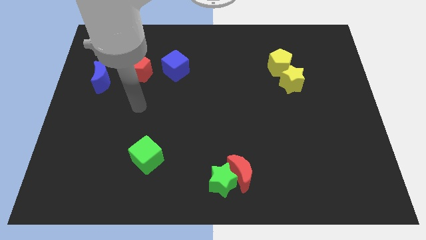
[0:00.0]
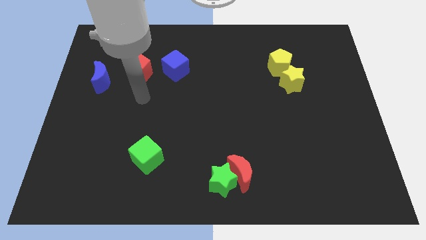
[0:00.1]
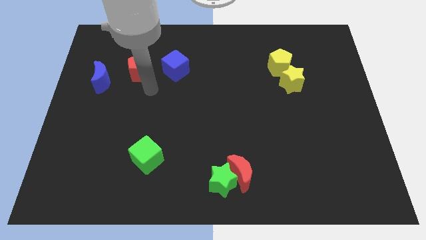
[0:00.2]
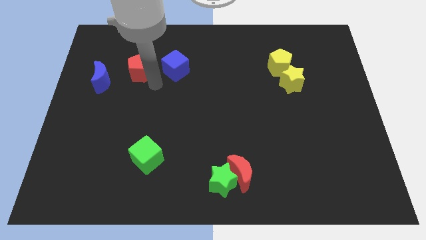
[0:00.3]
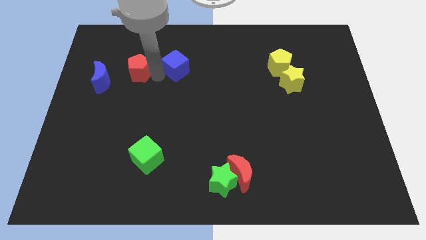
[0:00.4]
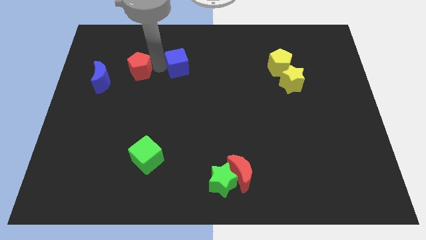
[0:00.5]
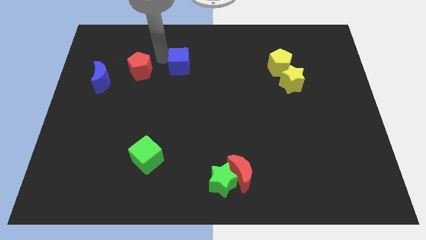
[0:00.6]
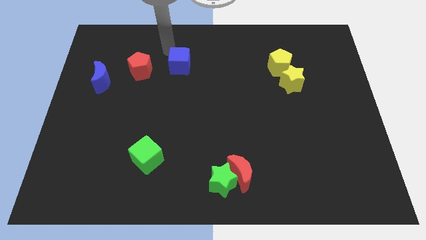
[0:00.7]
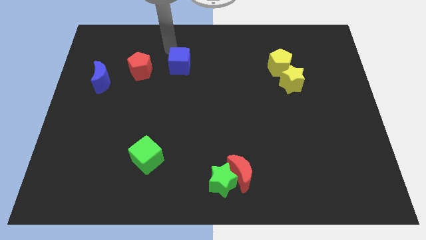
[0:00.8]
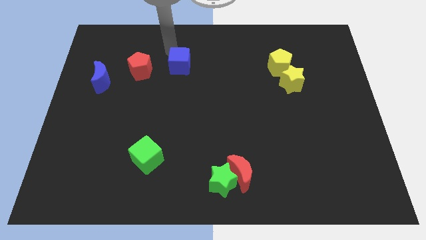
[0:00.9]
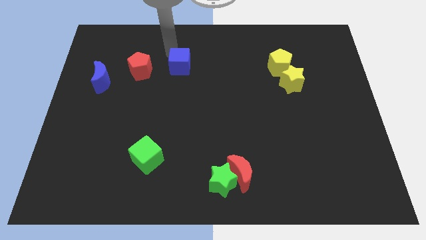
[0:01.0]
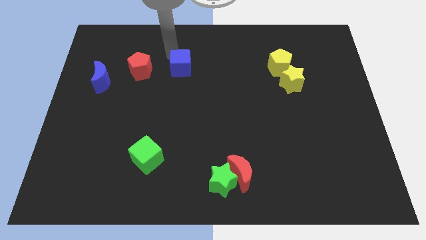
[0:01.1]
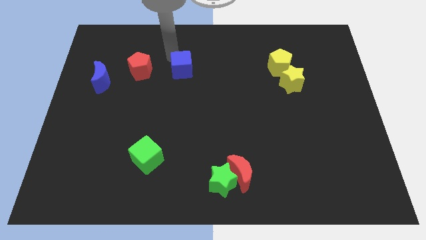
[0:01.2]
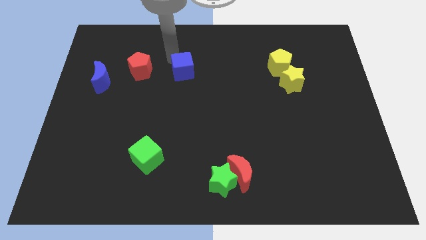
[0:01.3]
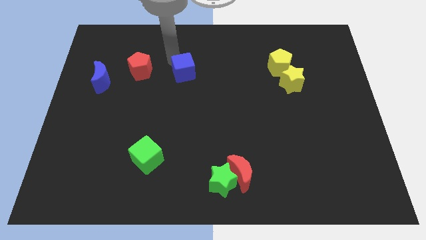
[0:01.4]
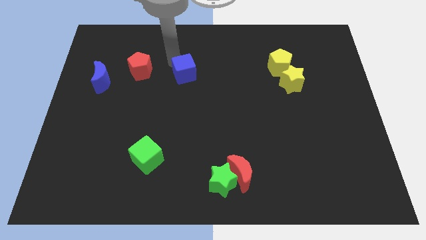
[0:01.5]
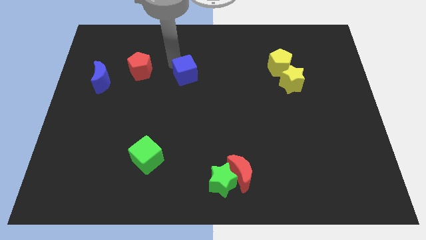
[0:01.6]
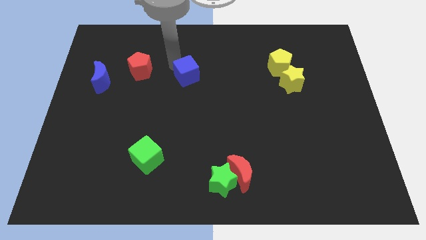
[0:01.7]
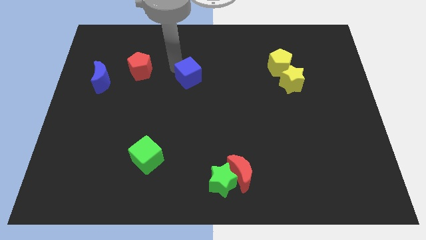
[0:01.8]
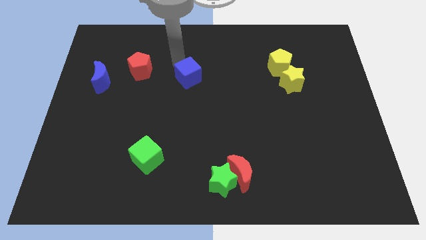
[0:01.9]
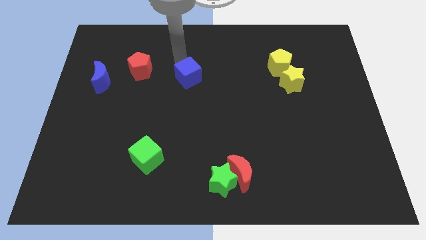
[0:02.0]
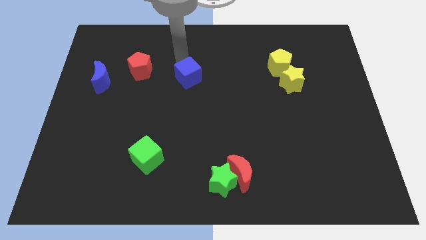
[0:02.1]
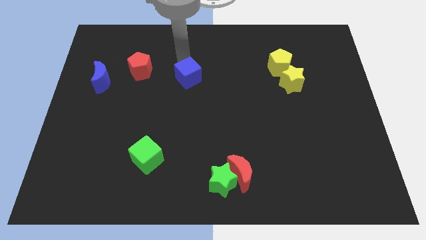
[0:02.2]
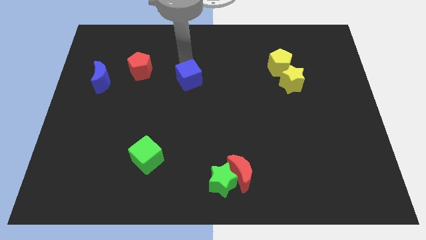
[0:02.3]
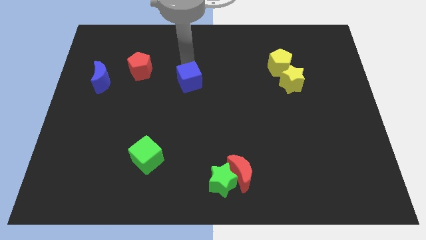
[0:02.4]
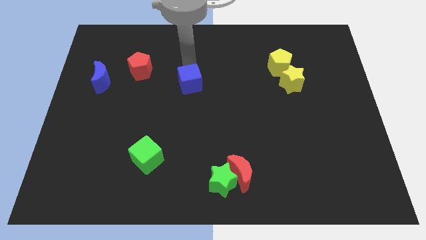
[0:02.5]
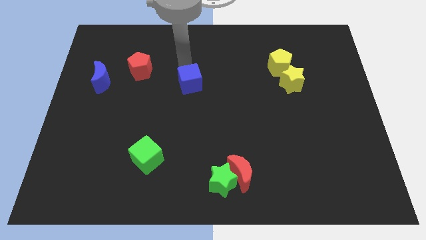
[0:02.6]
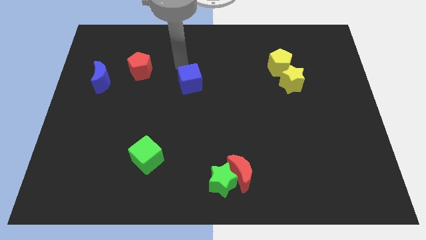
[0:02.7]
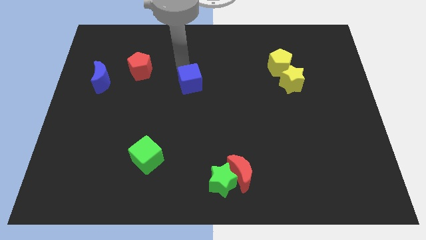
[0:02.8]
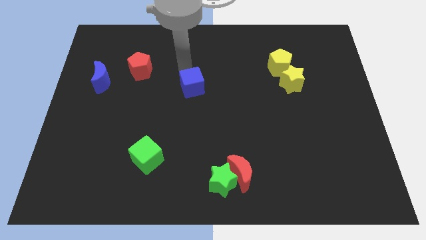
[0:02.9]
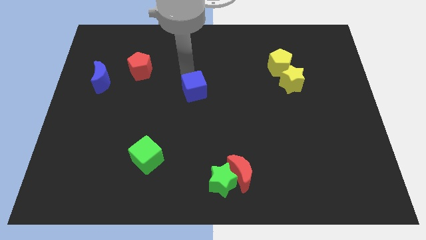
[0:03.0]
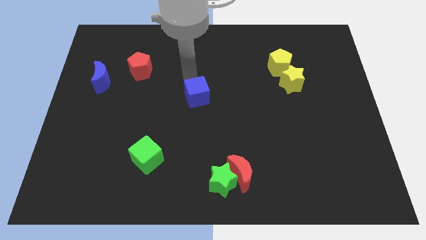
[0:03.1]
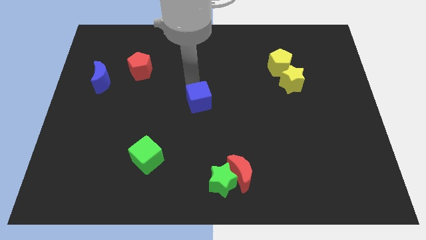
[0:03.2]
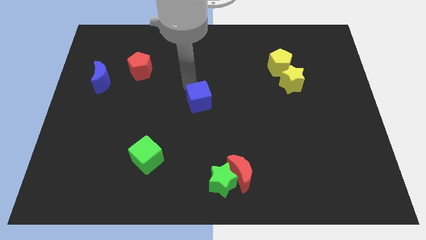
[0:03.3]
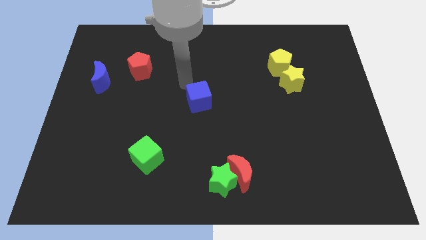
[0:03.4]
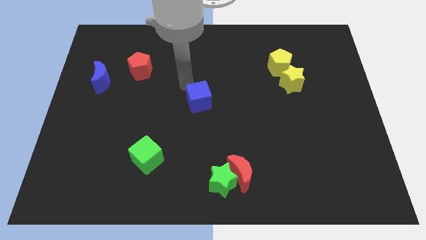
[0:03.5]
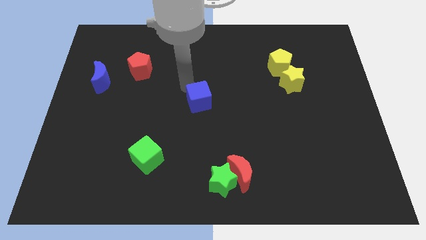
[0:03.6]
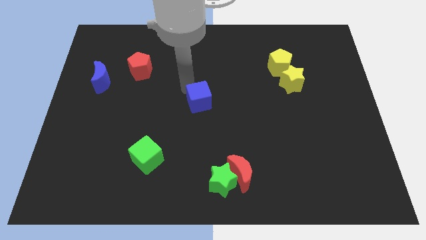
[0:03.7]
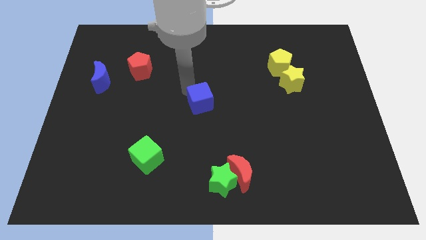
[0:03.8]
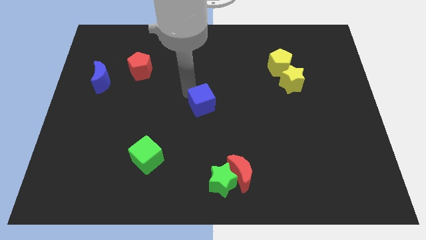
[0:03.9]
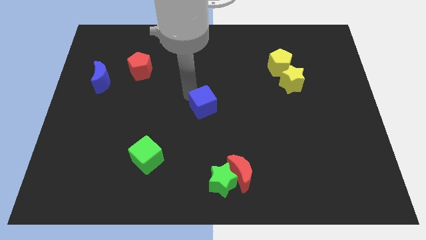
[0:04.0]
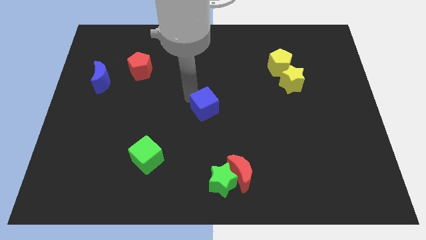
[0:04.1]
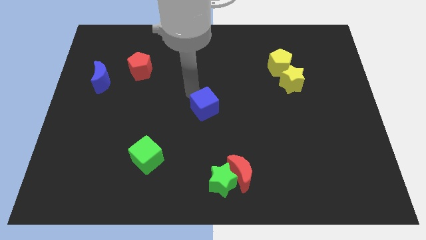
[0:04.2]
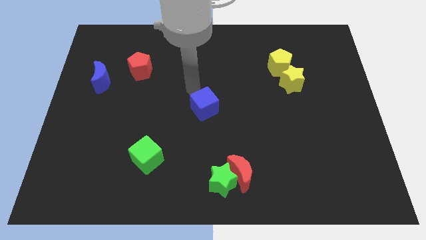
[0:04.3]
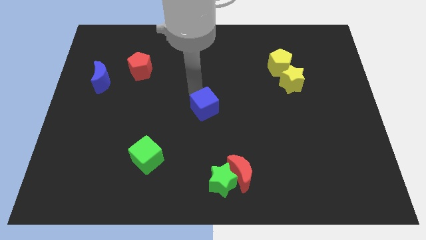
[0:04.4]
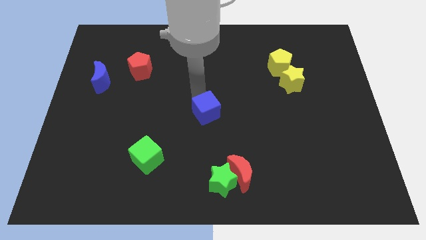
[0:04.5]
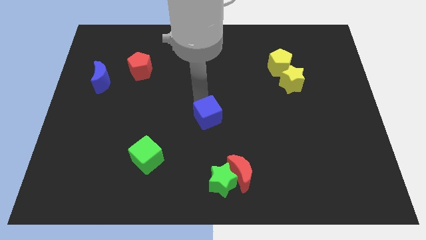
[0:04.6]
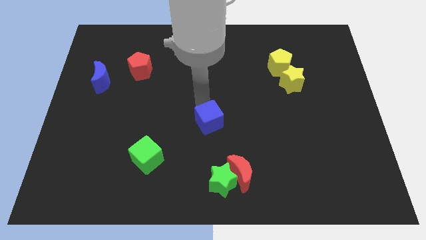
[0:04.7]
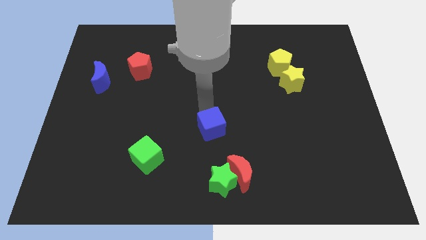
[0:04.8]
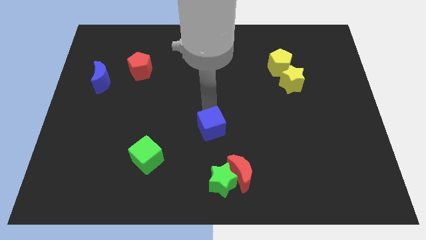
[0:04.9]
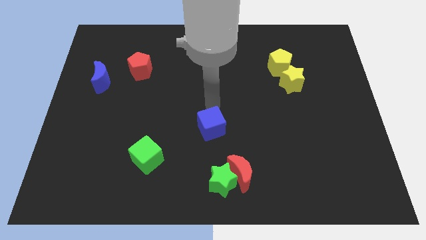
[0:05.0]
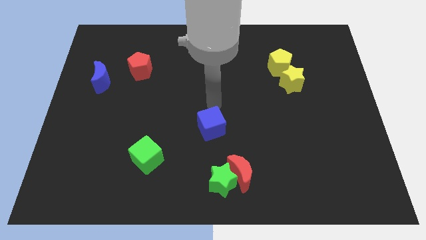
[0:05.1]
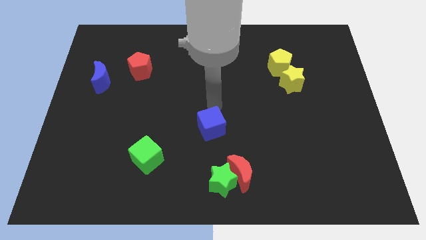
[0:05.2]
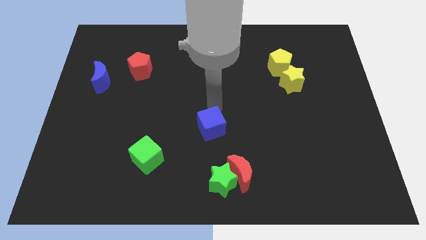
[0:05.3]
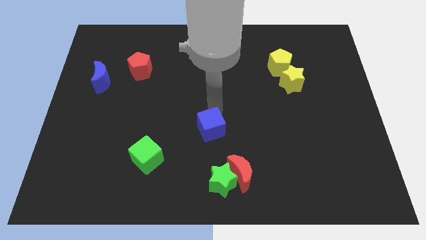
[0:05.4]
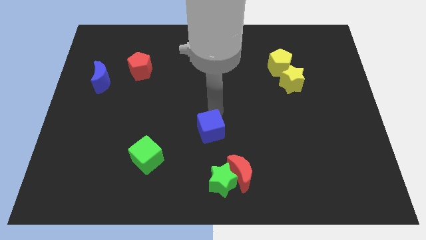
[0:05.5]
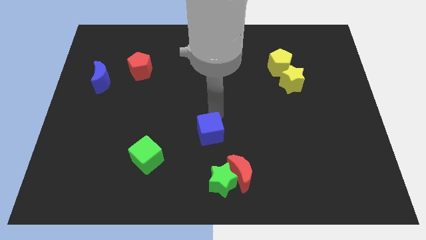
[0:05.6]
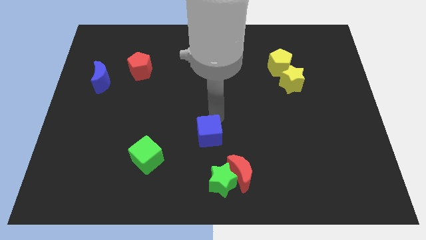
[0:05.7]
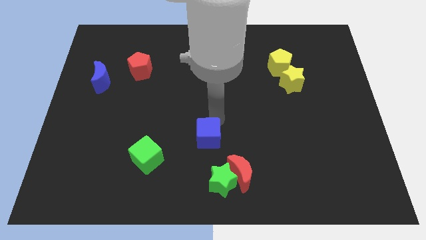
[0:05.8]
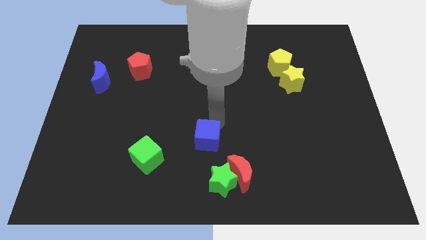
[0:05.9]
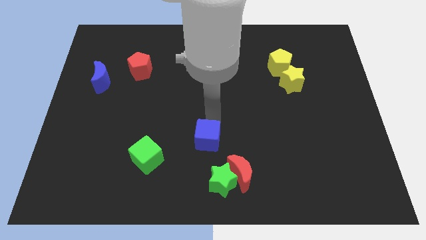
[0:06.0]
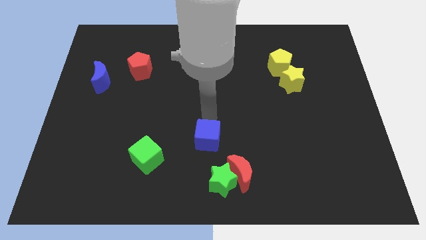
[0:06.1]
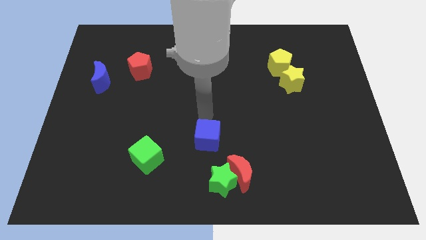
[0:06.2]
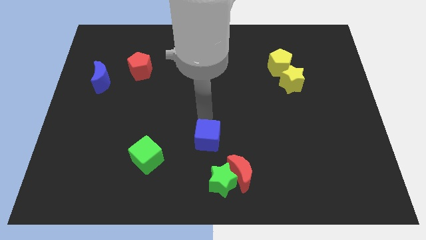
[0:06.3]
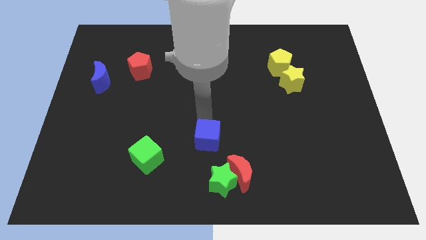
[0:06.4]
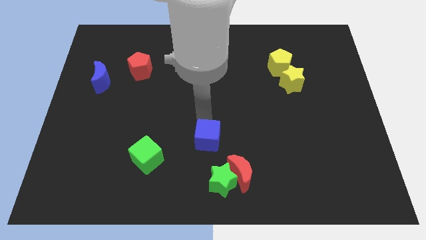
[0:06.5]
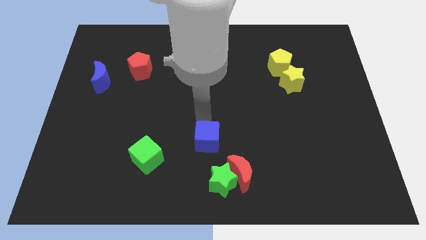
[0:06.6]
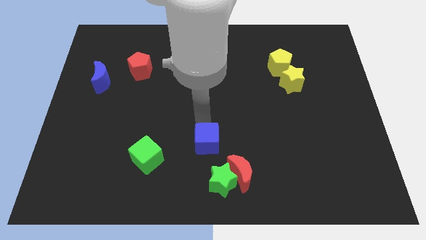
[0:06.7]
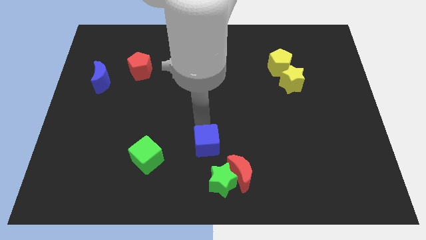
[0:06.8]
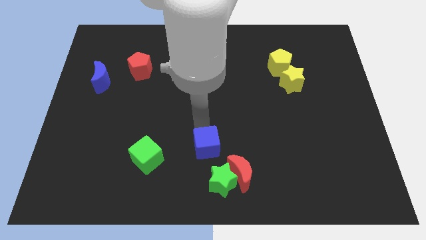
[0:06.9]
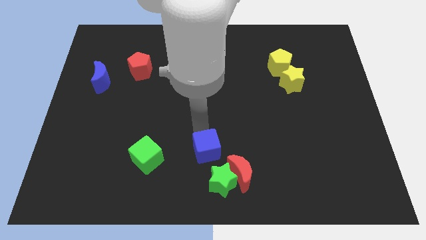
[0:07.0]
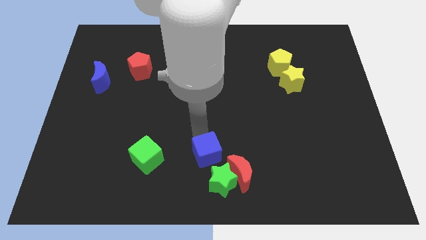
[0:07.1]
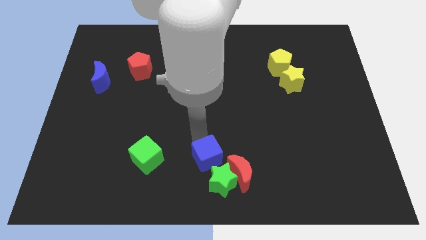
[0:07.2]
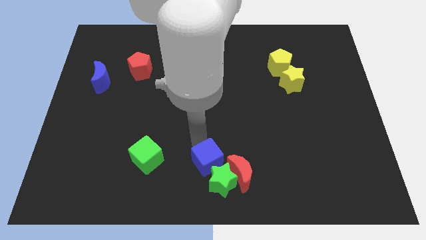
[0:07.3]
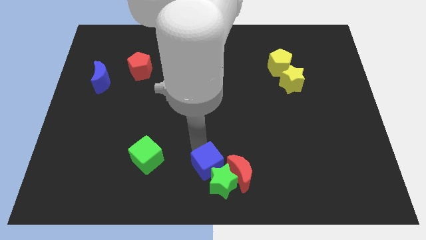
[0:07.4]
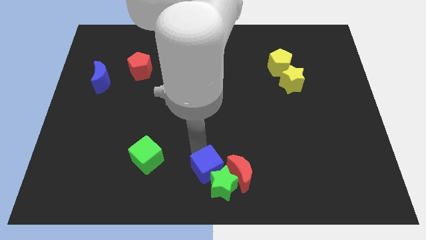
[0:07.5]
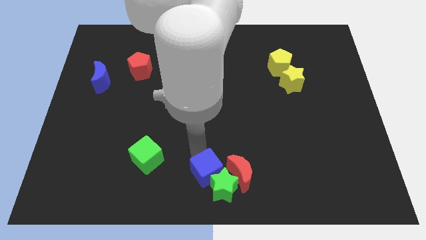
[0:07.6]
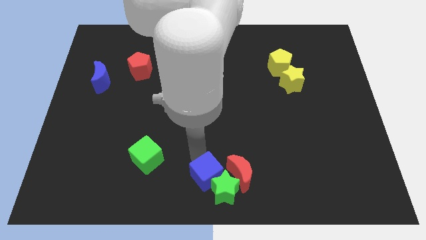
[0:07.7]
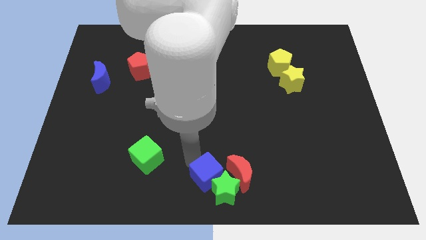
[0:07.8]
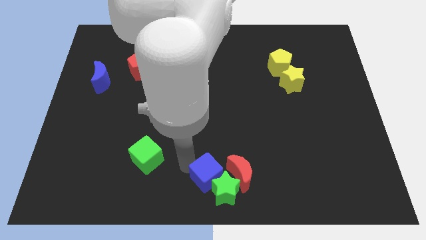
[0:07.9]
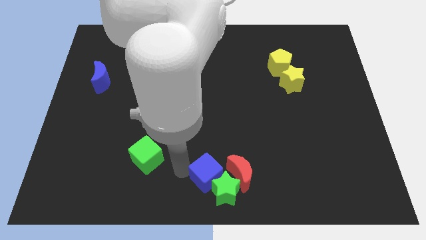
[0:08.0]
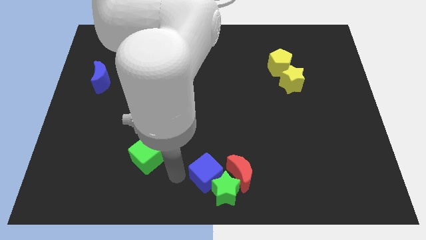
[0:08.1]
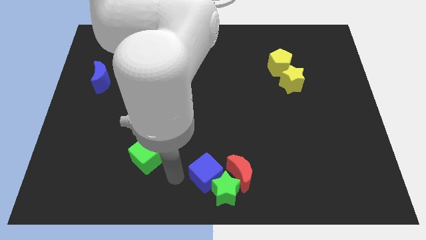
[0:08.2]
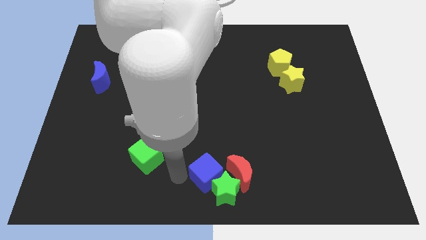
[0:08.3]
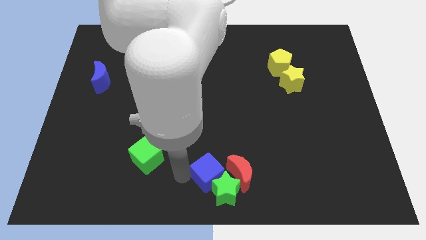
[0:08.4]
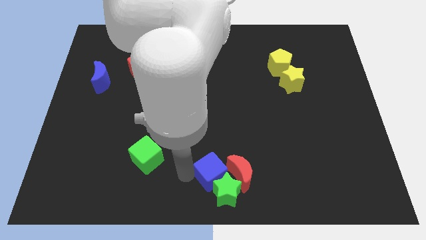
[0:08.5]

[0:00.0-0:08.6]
push the blue cube towards the red moon
